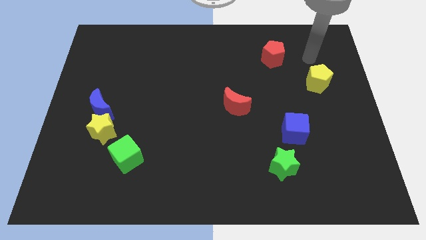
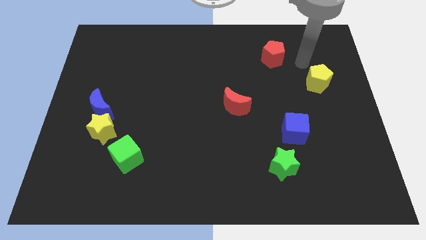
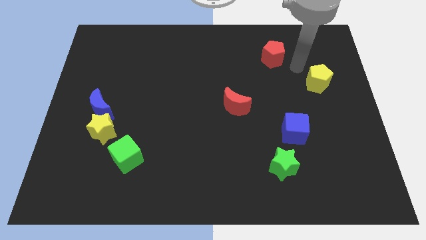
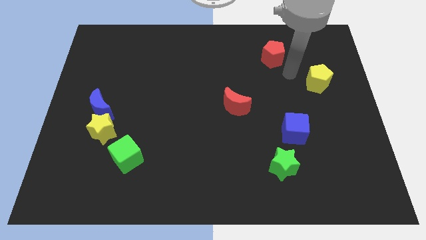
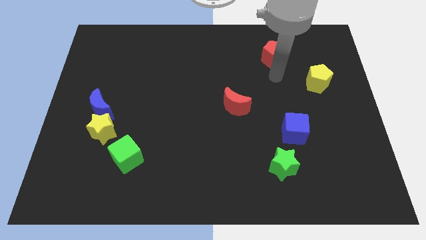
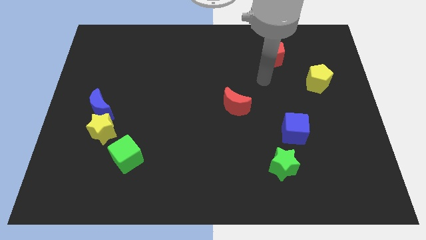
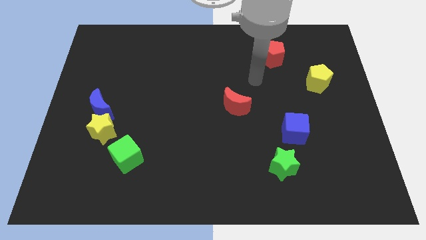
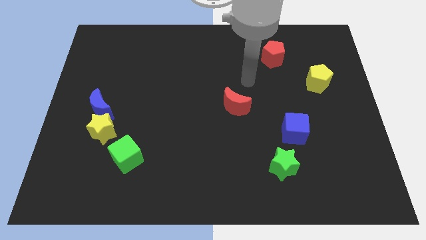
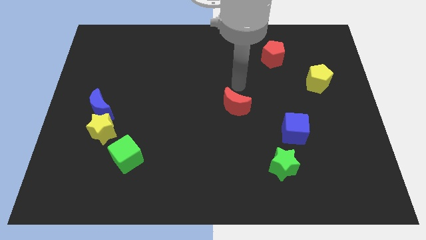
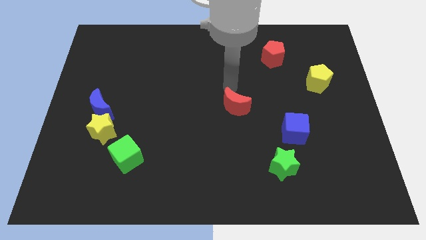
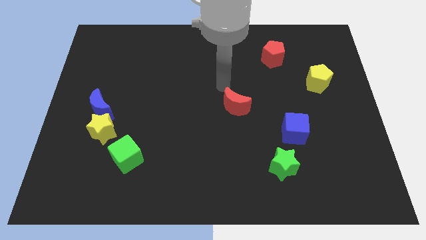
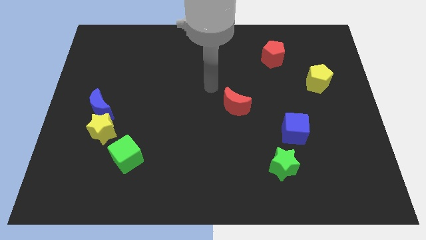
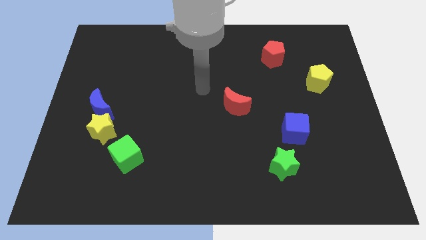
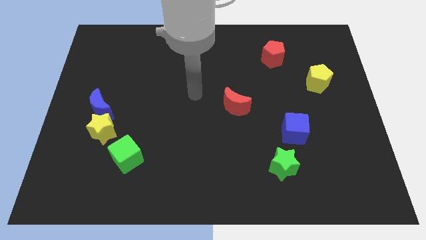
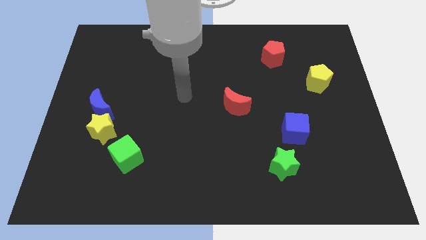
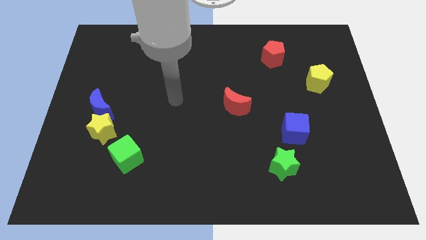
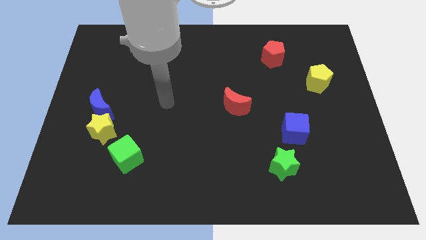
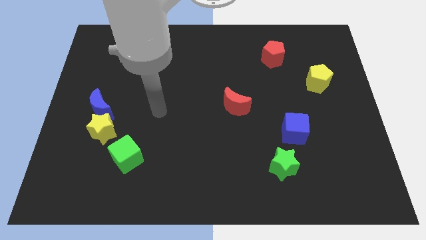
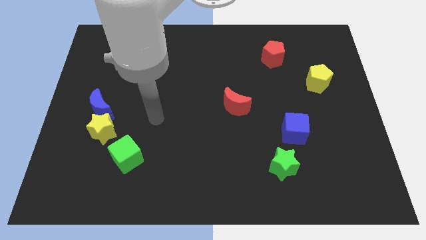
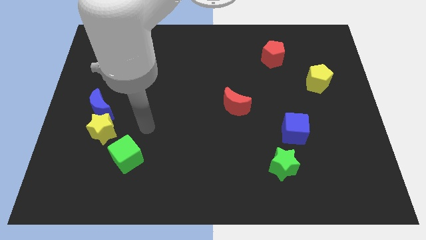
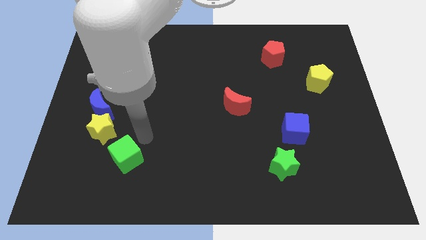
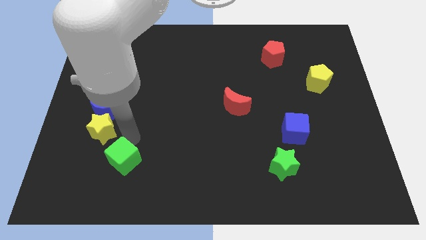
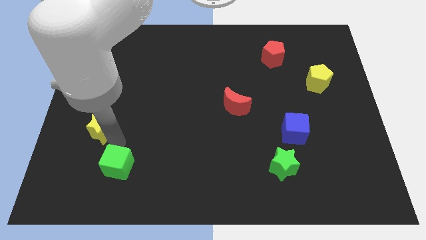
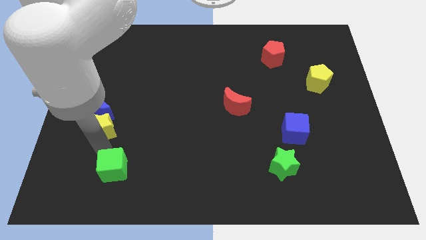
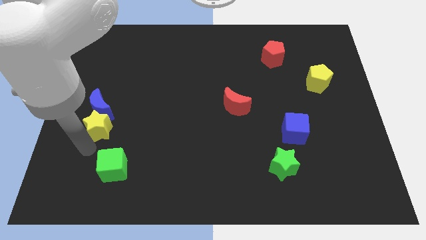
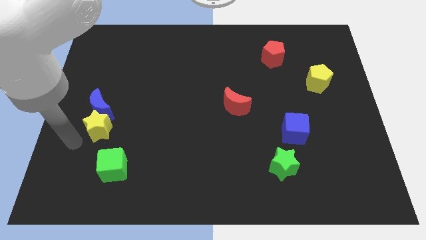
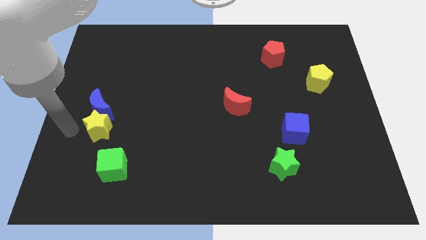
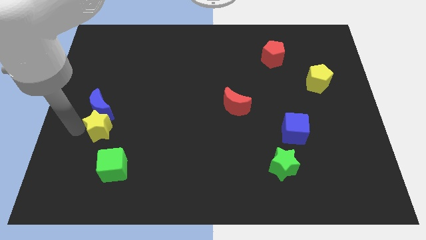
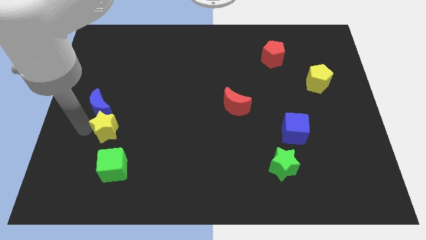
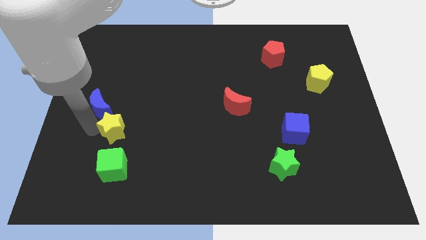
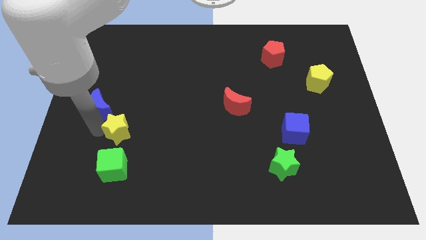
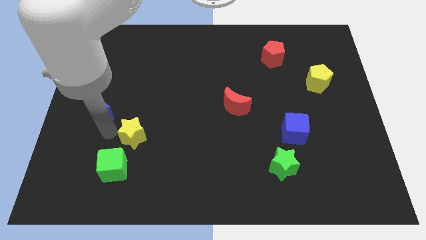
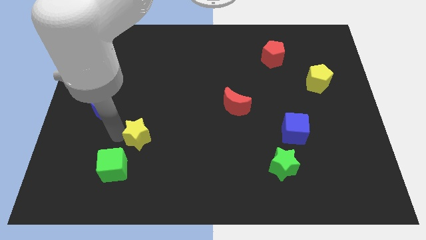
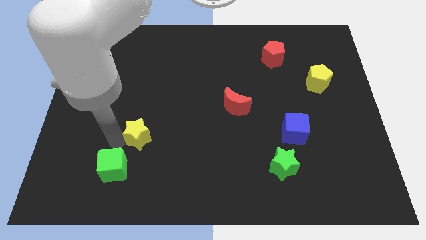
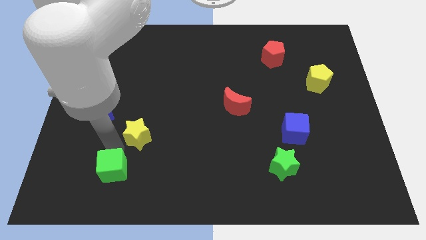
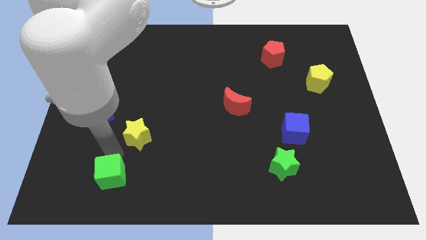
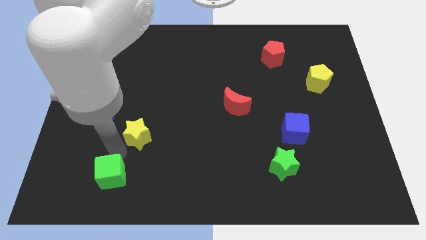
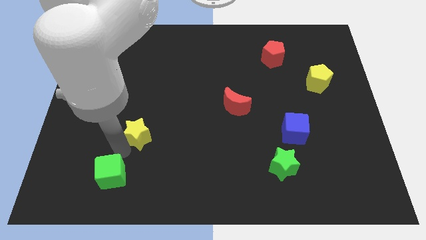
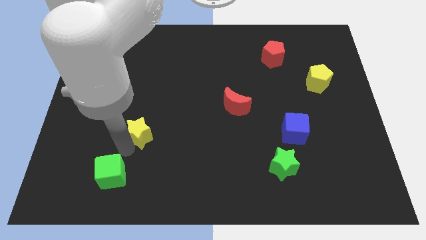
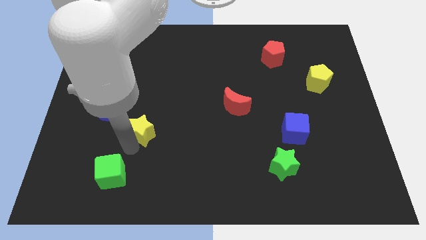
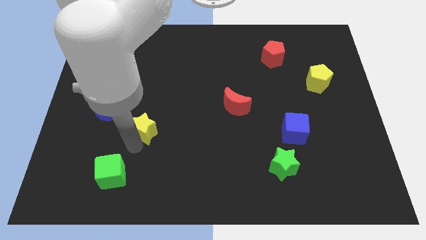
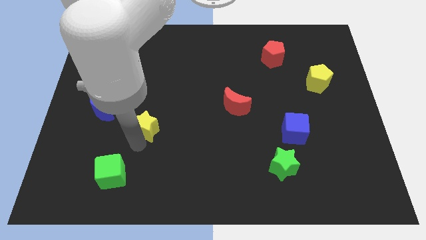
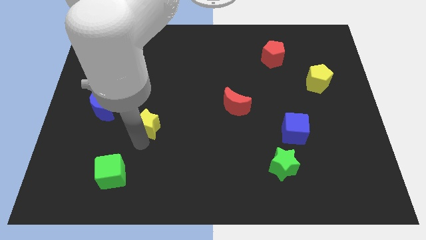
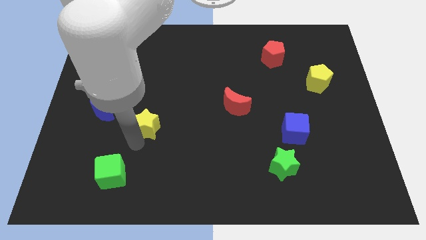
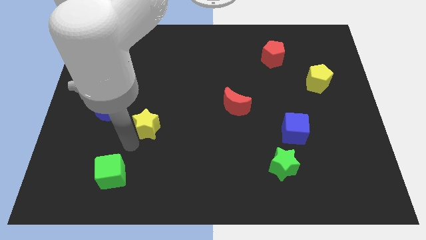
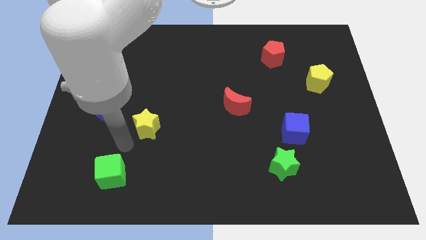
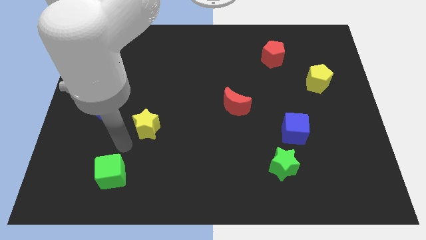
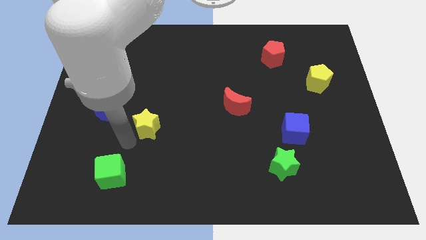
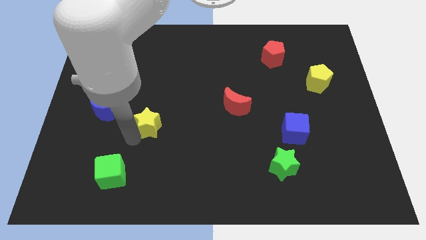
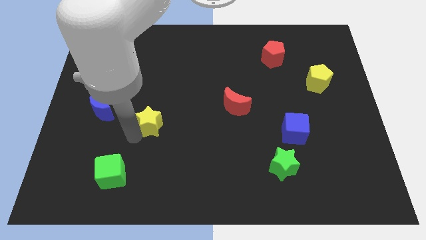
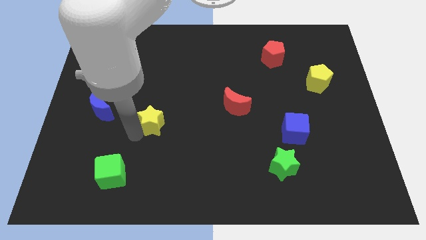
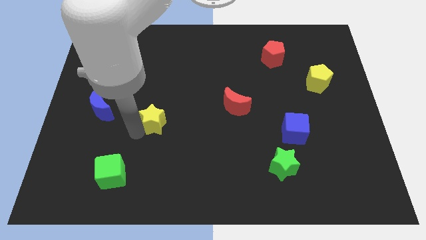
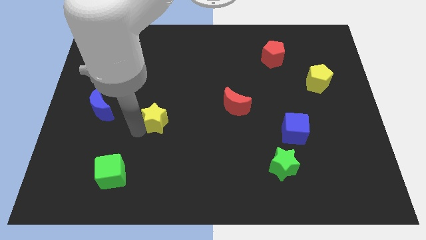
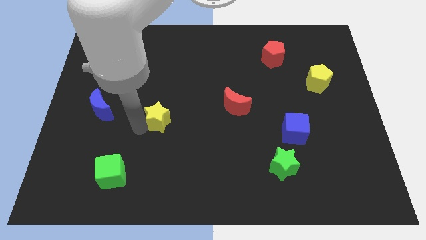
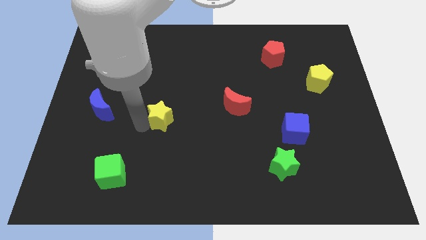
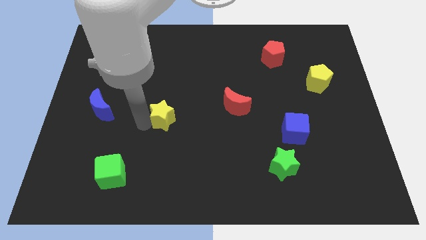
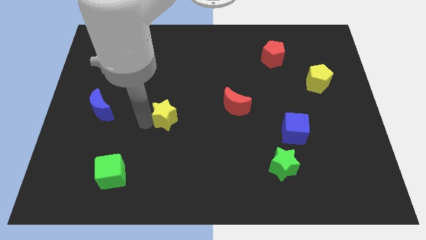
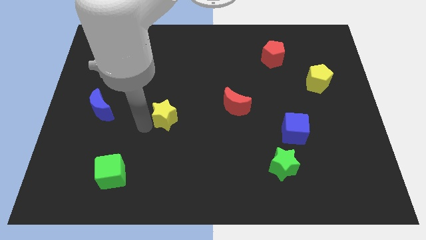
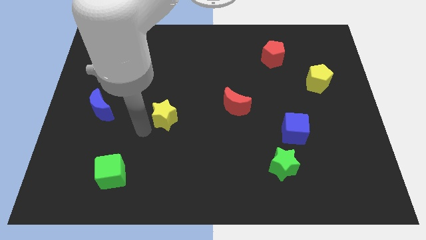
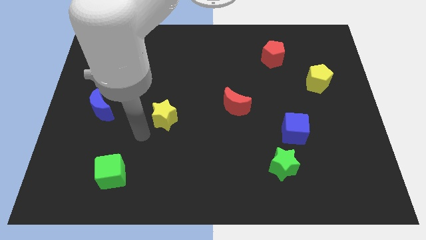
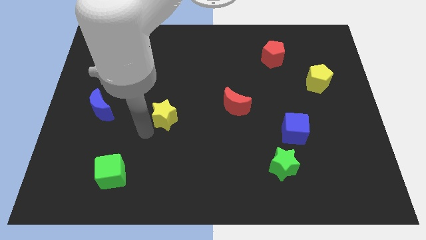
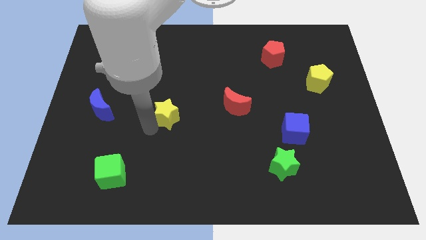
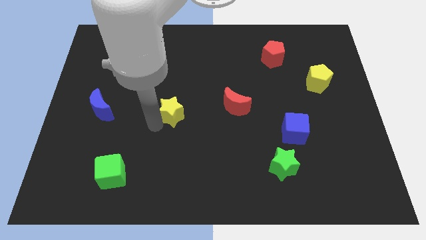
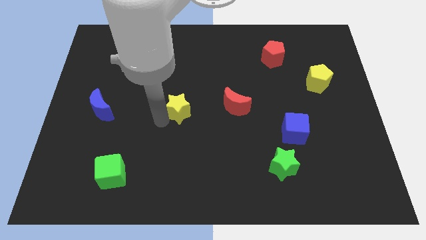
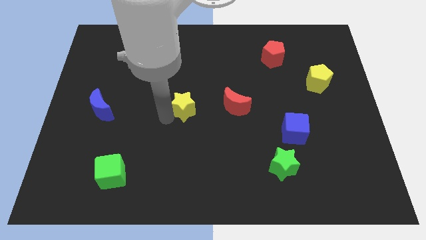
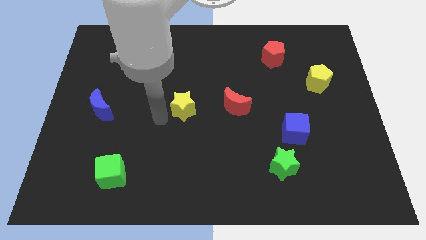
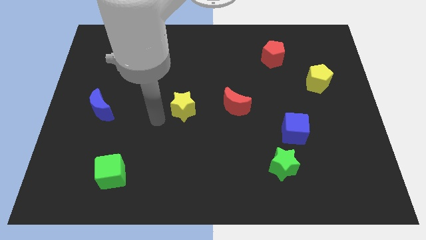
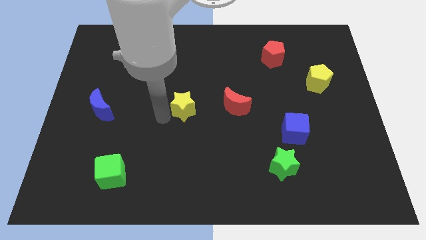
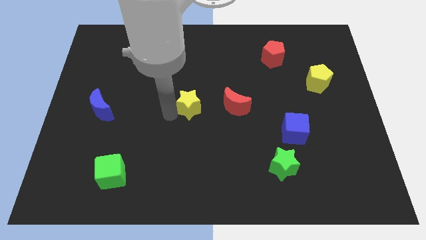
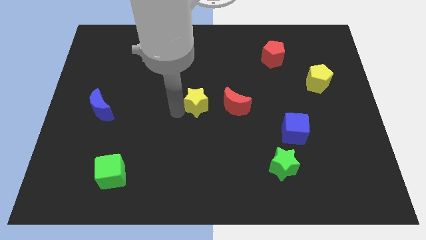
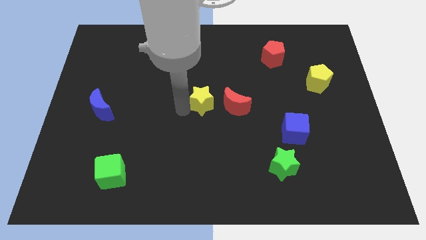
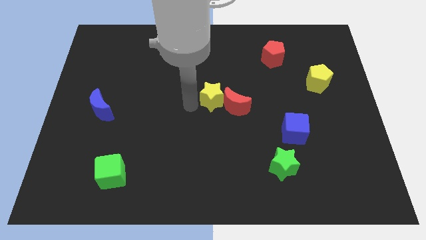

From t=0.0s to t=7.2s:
push the yellow star close to the red moon

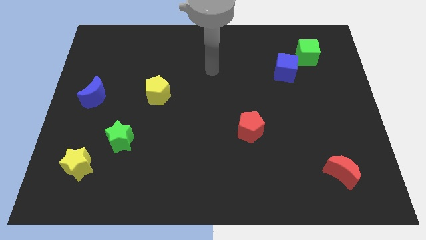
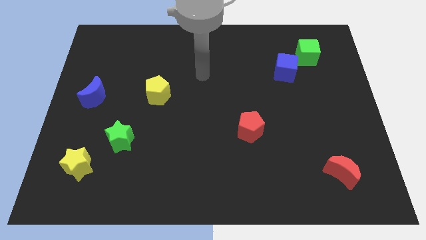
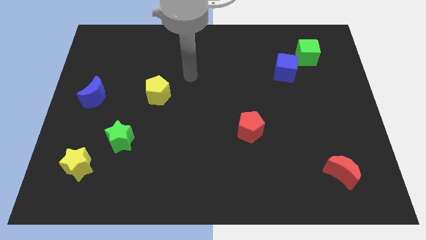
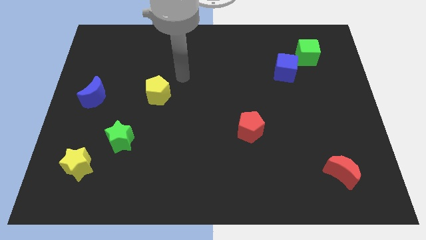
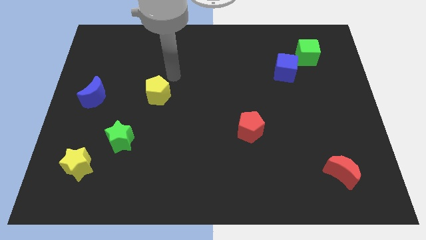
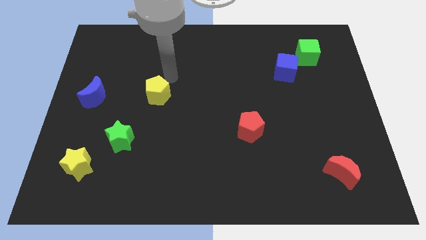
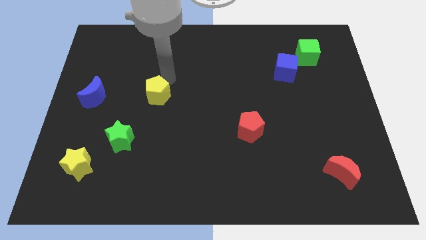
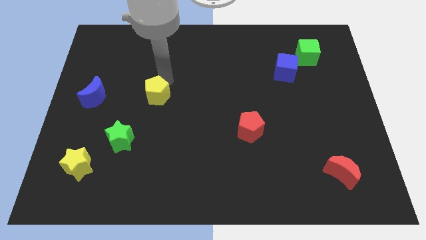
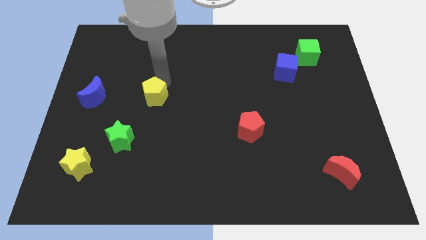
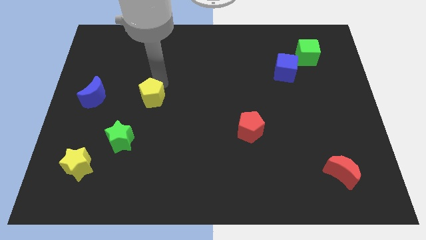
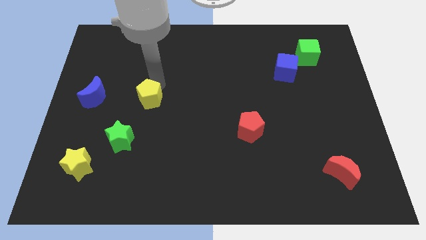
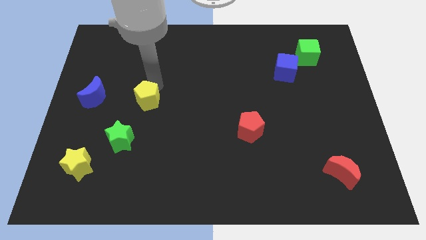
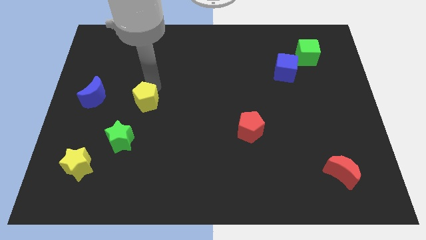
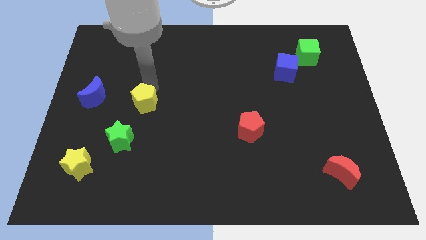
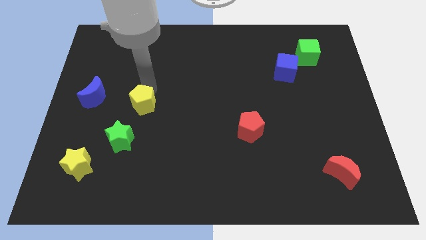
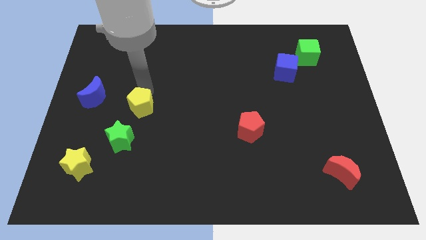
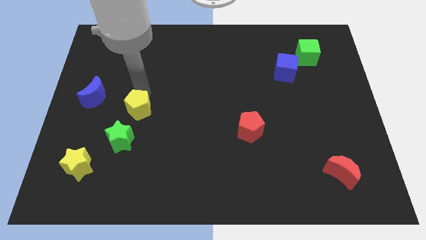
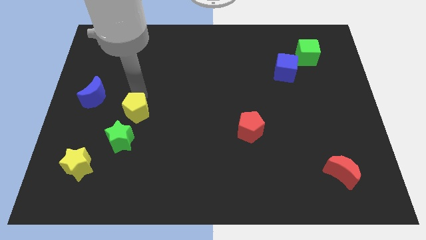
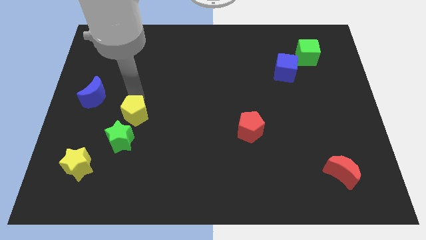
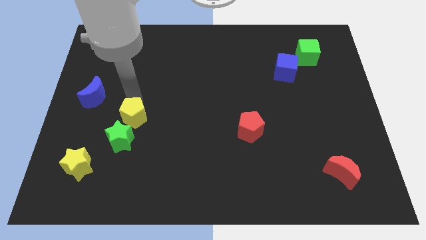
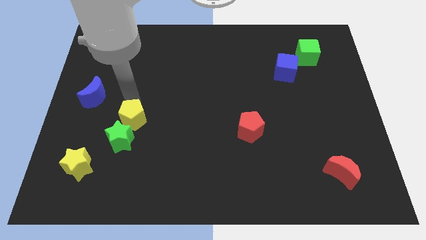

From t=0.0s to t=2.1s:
put the yellow pentagon towards the green star
